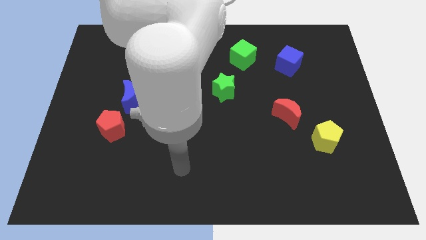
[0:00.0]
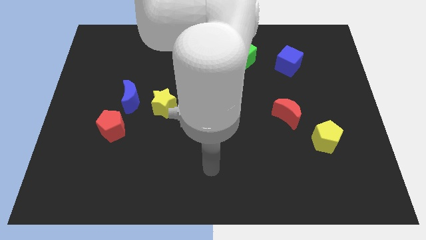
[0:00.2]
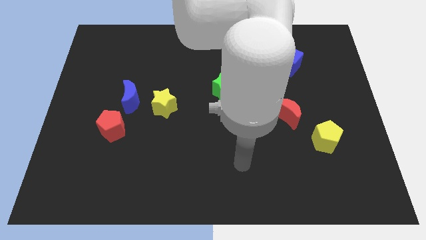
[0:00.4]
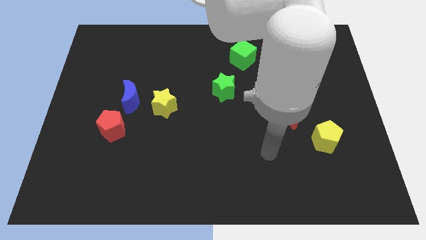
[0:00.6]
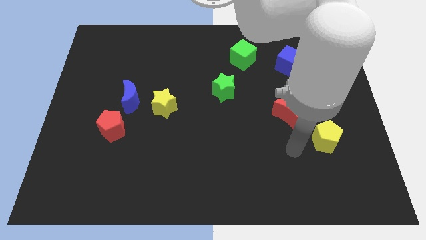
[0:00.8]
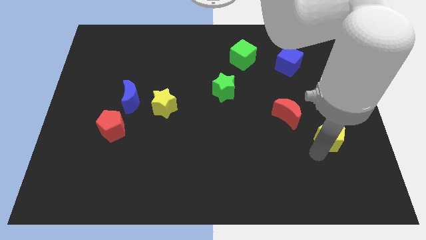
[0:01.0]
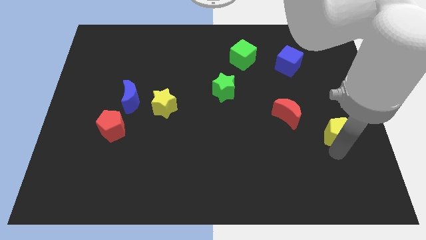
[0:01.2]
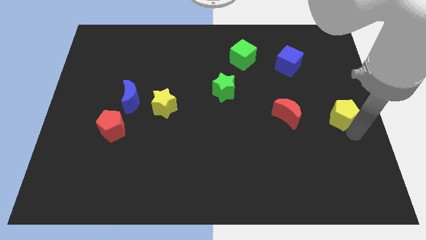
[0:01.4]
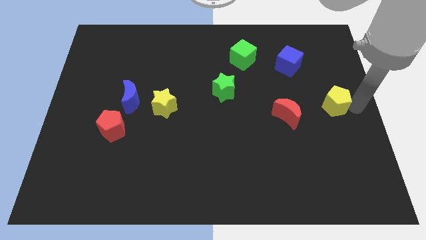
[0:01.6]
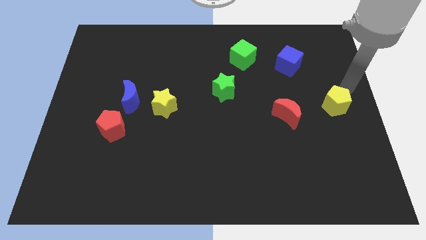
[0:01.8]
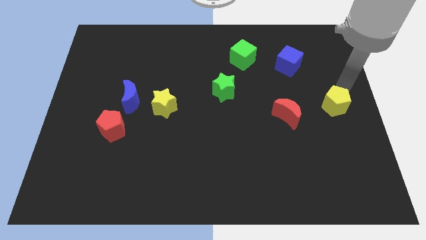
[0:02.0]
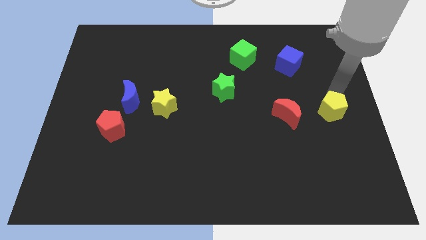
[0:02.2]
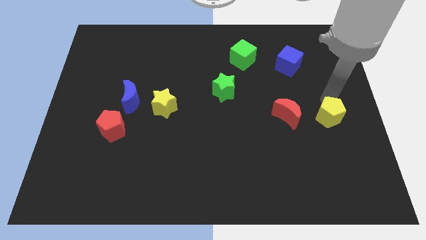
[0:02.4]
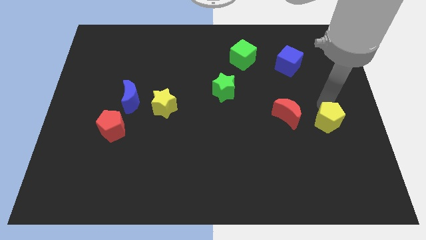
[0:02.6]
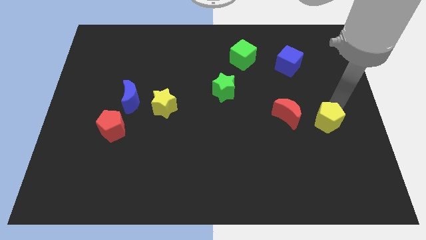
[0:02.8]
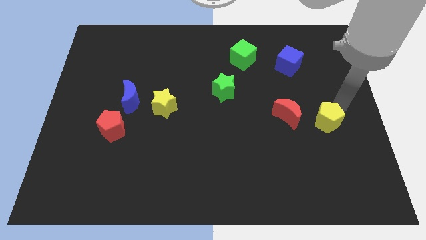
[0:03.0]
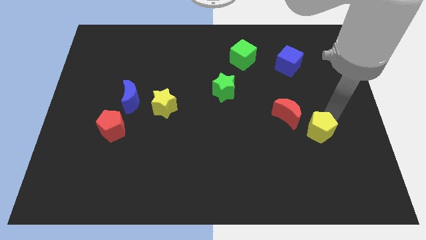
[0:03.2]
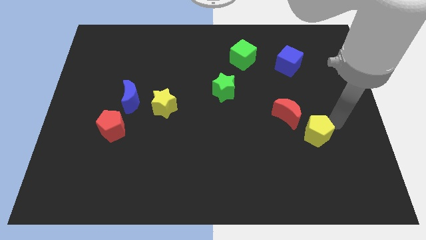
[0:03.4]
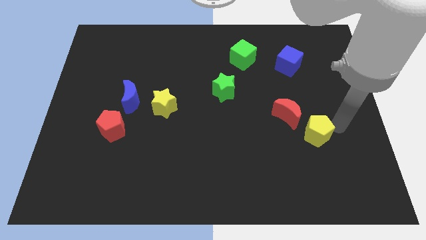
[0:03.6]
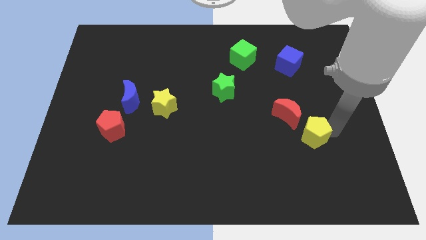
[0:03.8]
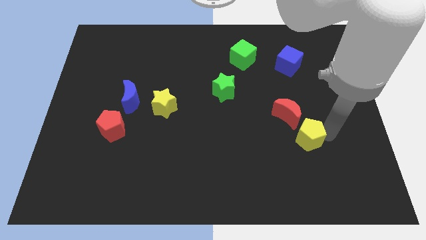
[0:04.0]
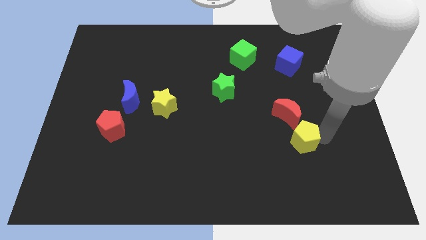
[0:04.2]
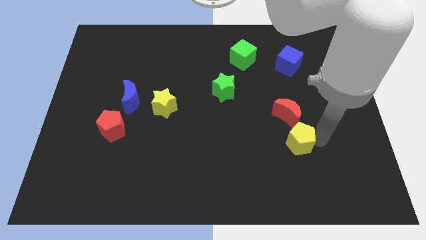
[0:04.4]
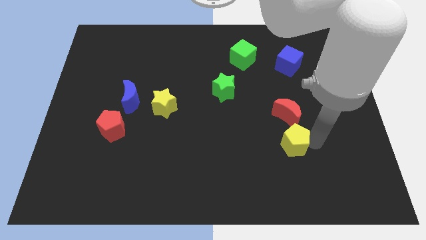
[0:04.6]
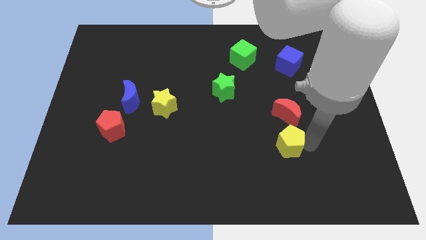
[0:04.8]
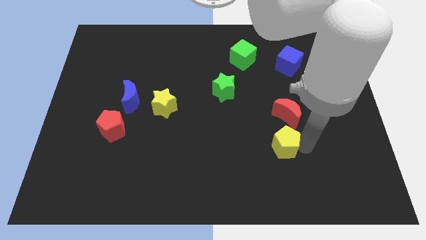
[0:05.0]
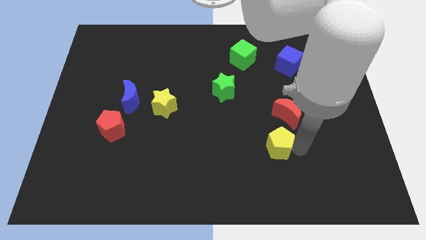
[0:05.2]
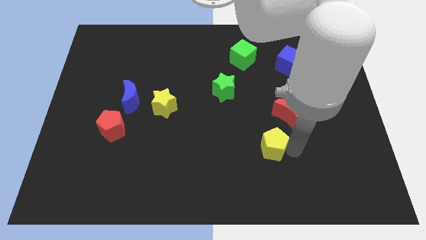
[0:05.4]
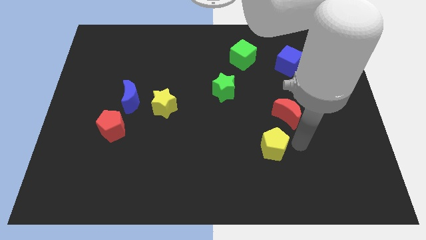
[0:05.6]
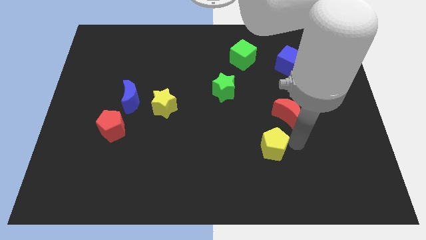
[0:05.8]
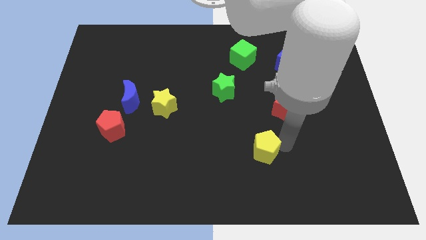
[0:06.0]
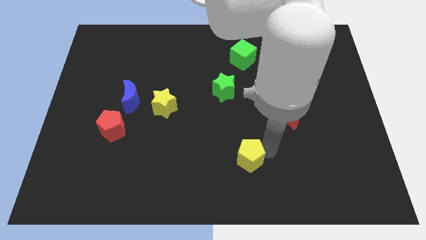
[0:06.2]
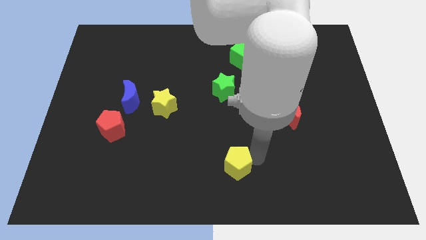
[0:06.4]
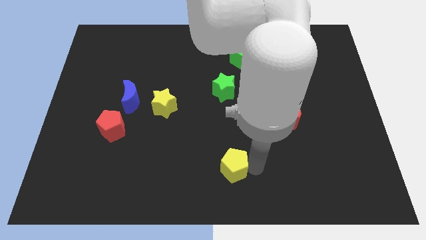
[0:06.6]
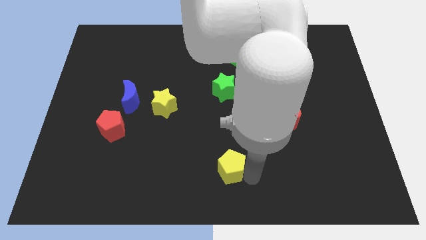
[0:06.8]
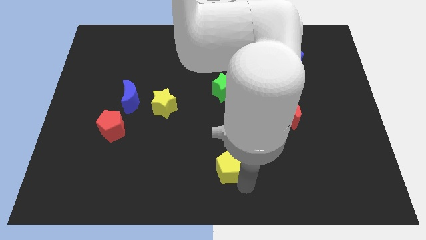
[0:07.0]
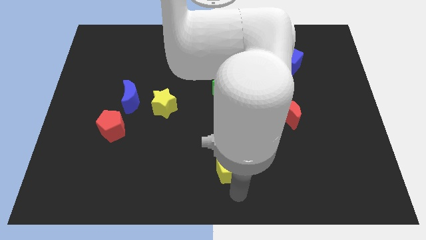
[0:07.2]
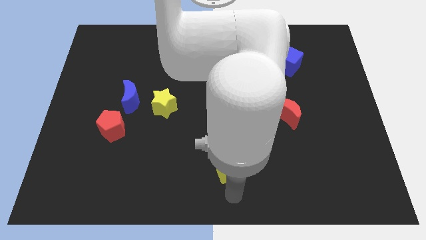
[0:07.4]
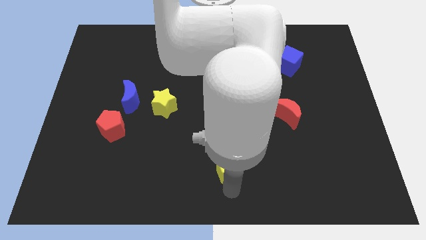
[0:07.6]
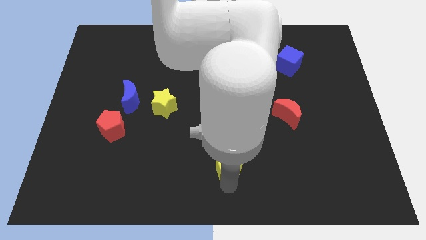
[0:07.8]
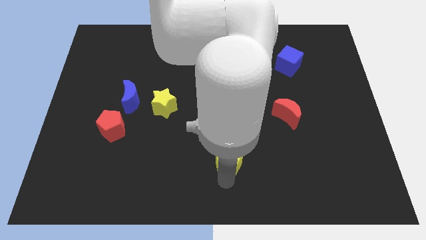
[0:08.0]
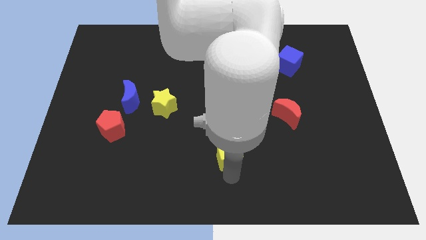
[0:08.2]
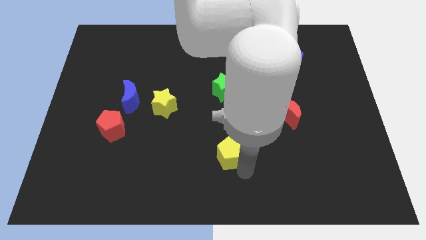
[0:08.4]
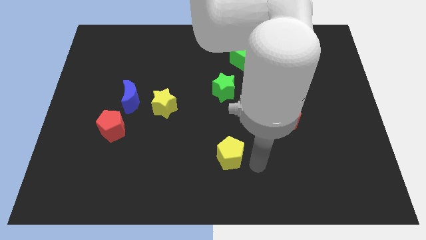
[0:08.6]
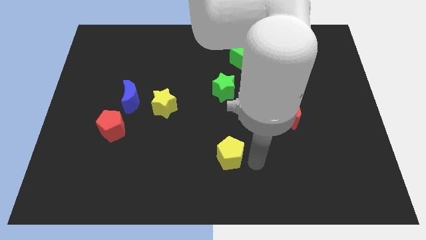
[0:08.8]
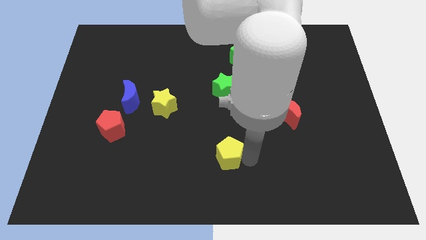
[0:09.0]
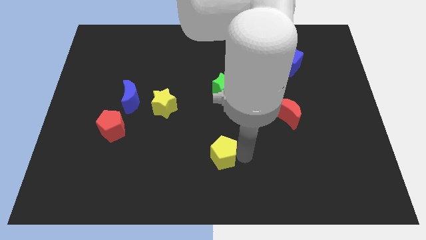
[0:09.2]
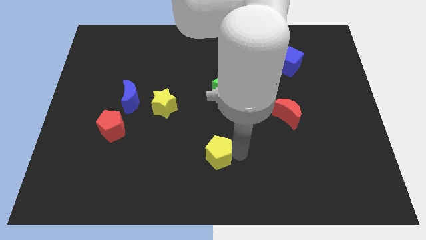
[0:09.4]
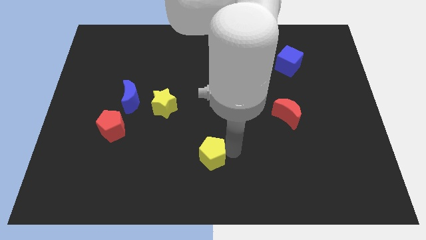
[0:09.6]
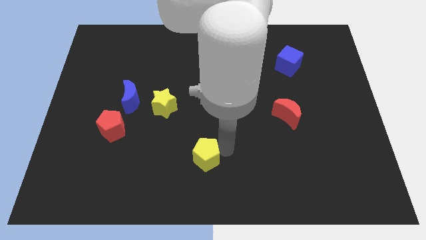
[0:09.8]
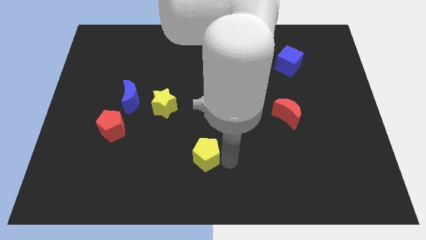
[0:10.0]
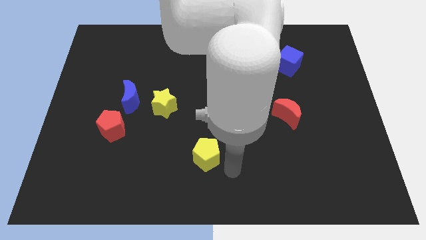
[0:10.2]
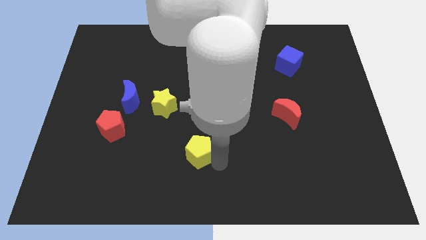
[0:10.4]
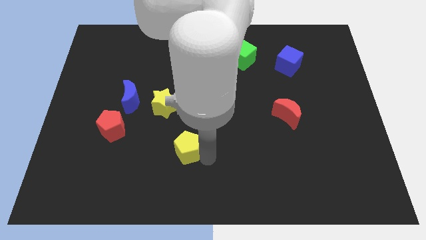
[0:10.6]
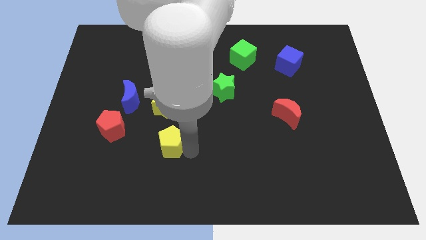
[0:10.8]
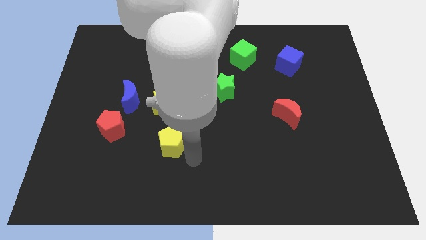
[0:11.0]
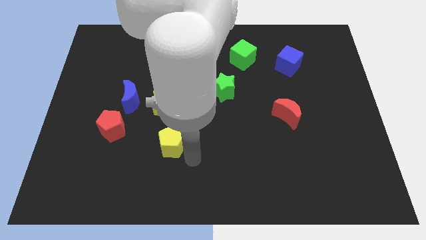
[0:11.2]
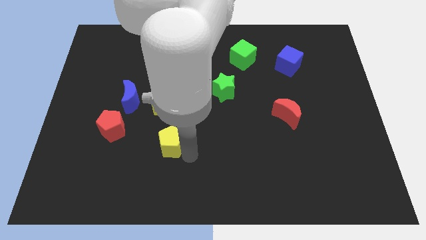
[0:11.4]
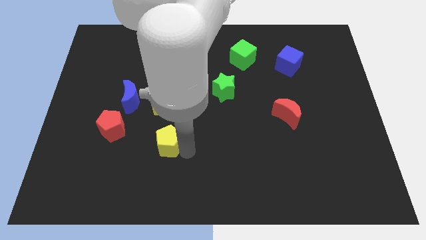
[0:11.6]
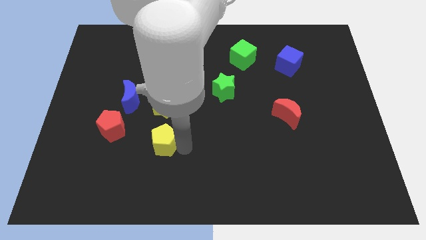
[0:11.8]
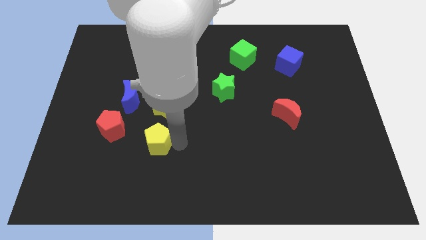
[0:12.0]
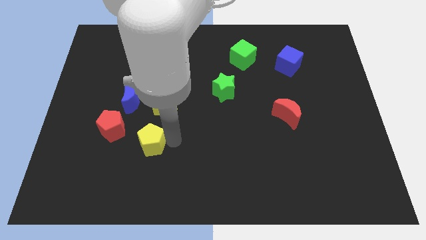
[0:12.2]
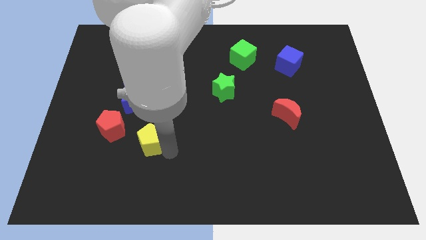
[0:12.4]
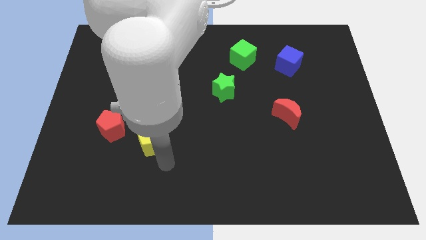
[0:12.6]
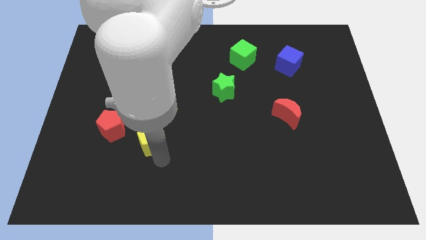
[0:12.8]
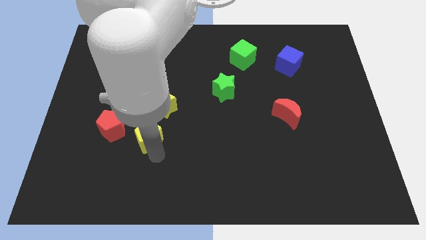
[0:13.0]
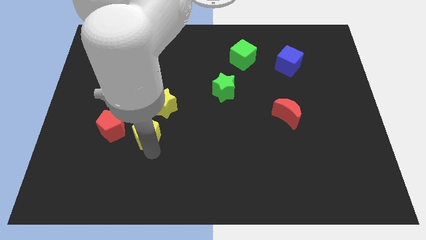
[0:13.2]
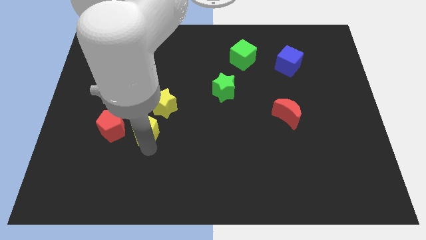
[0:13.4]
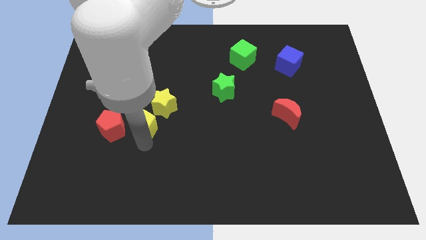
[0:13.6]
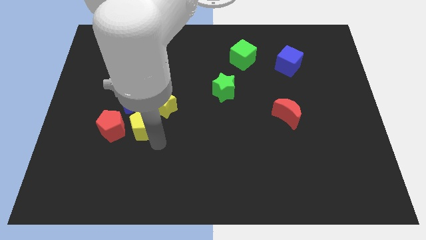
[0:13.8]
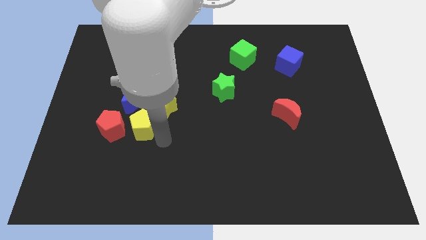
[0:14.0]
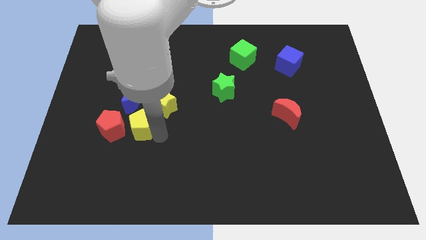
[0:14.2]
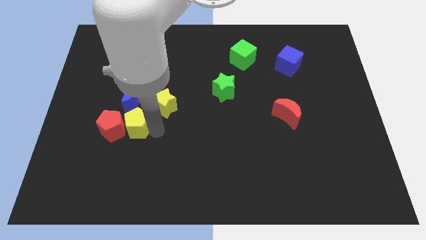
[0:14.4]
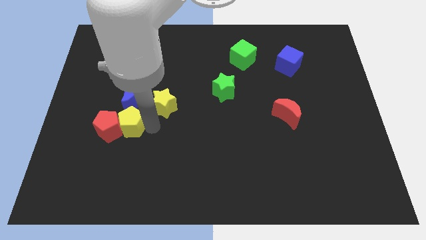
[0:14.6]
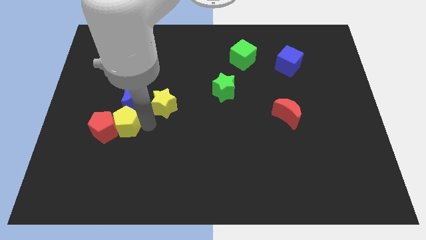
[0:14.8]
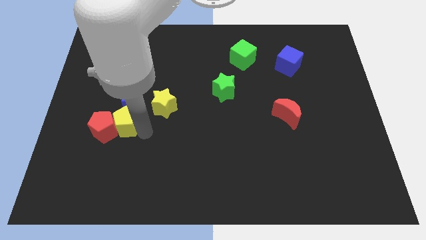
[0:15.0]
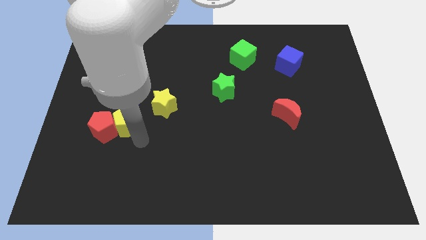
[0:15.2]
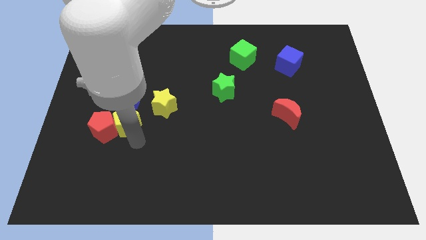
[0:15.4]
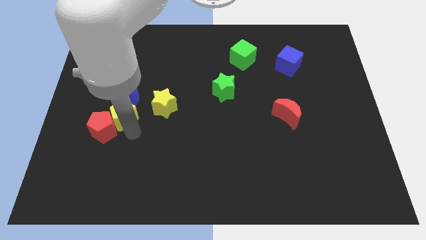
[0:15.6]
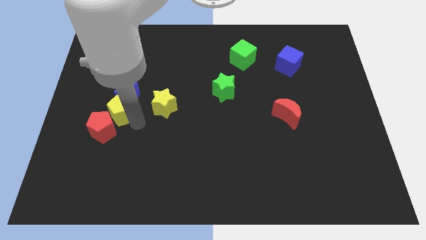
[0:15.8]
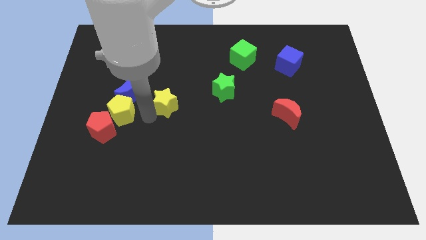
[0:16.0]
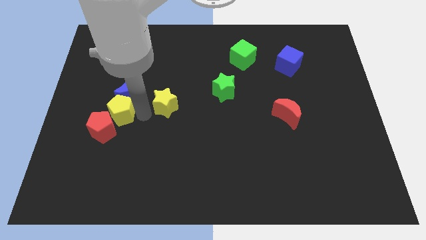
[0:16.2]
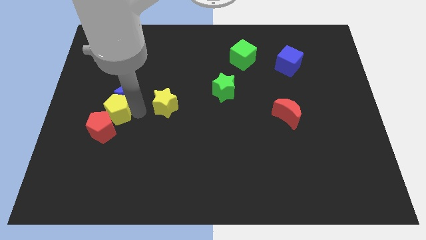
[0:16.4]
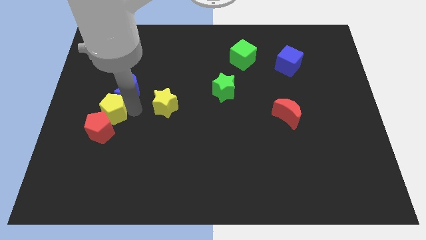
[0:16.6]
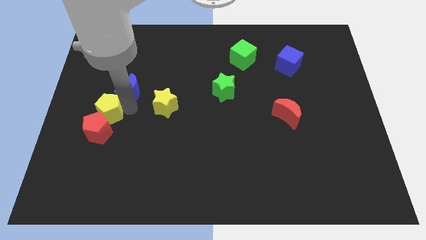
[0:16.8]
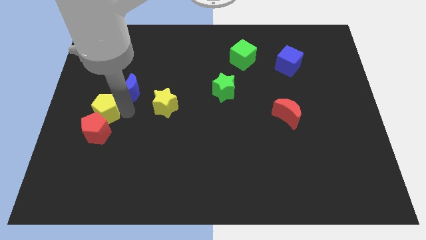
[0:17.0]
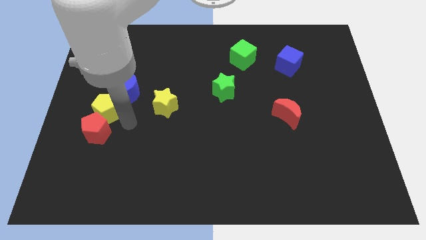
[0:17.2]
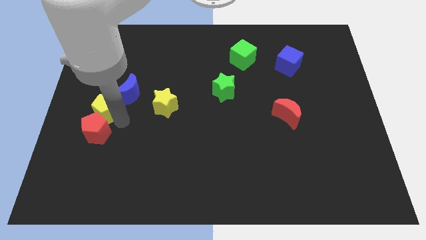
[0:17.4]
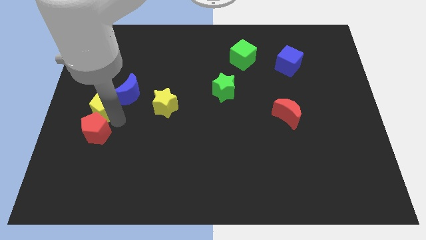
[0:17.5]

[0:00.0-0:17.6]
put the yellow pentagon to the left side
